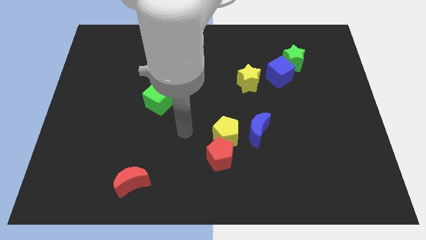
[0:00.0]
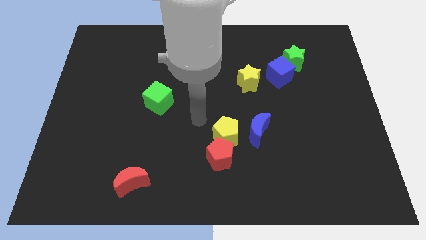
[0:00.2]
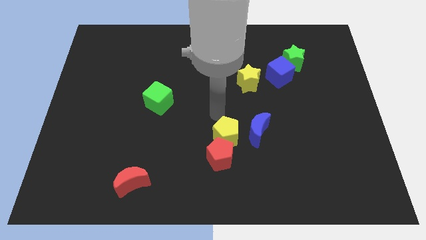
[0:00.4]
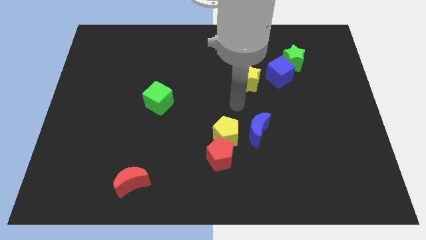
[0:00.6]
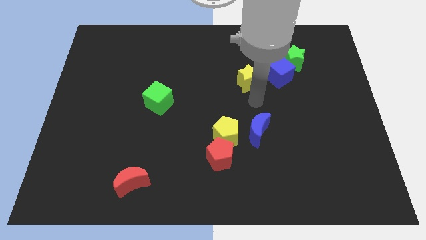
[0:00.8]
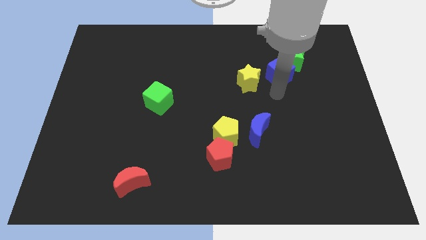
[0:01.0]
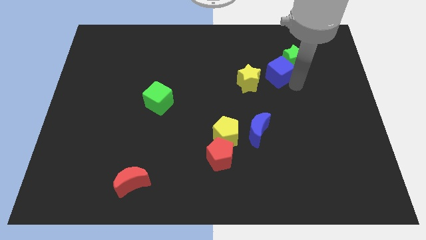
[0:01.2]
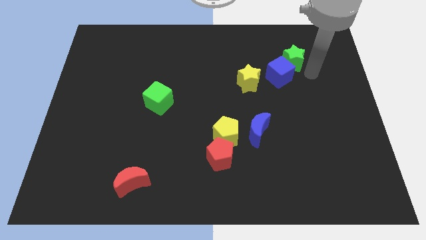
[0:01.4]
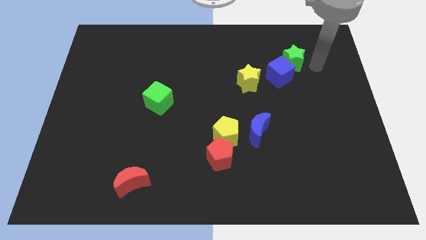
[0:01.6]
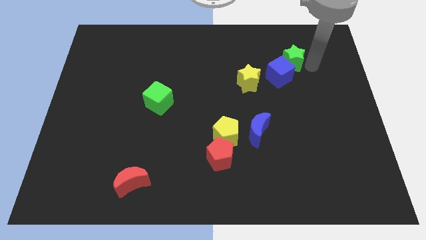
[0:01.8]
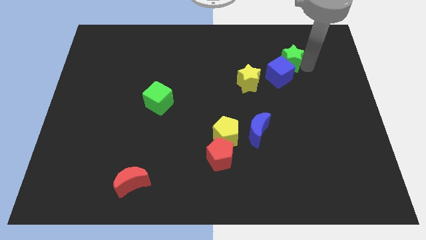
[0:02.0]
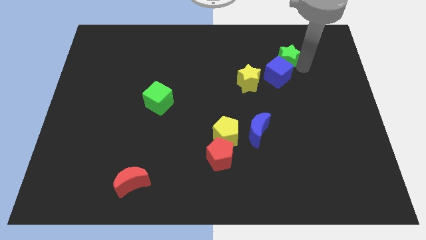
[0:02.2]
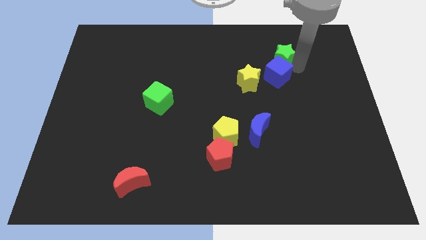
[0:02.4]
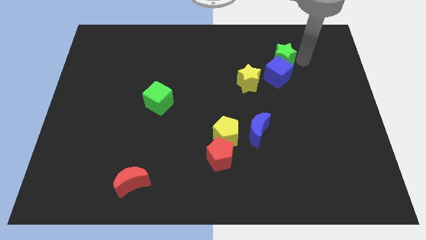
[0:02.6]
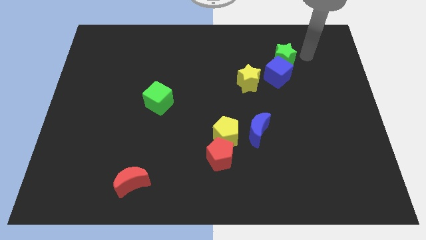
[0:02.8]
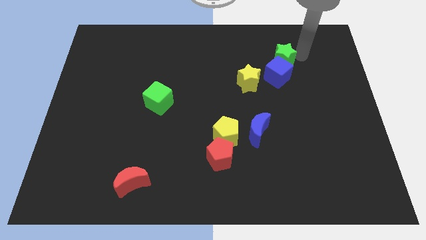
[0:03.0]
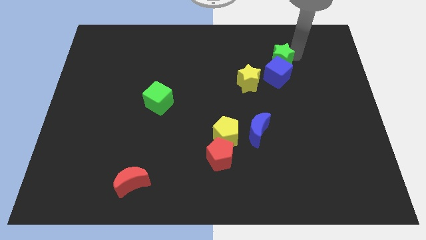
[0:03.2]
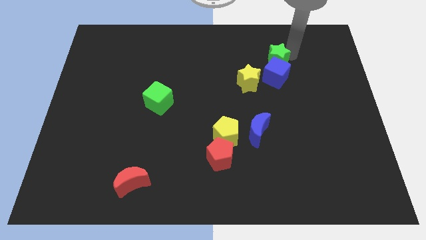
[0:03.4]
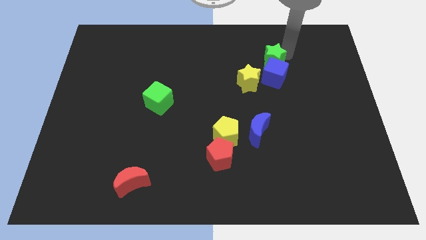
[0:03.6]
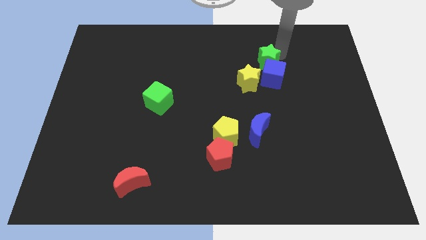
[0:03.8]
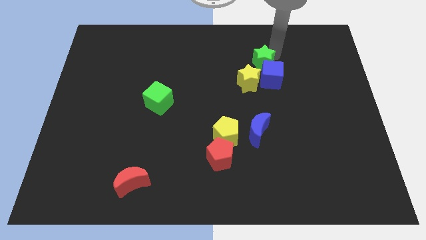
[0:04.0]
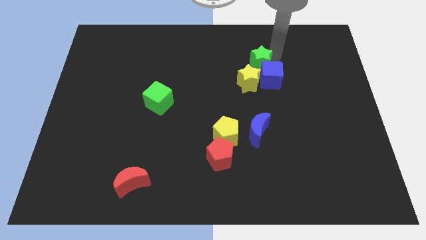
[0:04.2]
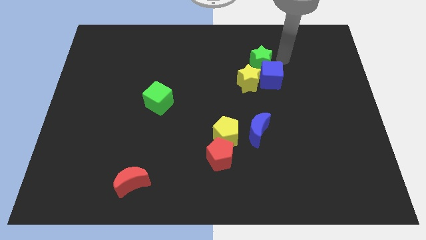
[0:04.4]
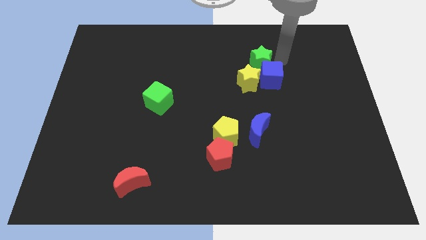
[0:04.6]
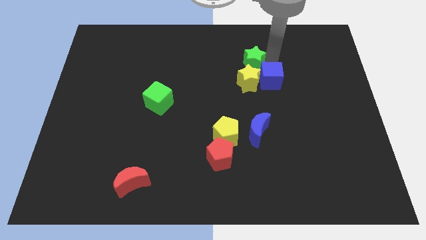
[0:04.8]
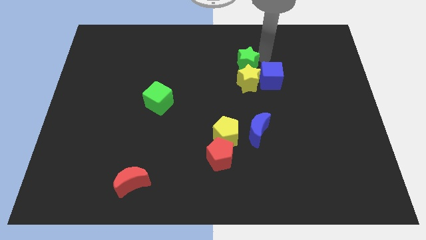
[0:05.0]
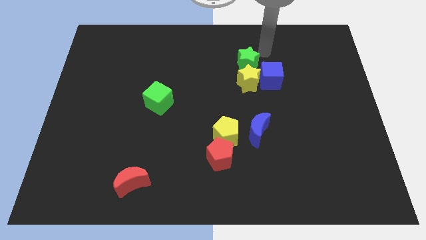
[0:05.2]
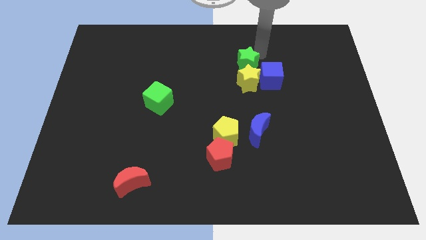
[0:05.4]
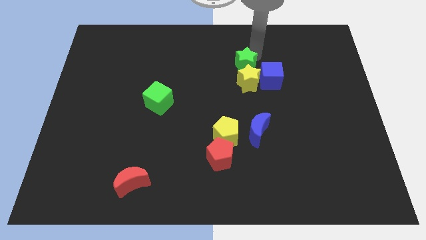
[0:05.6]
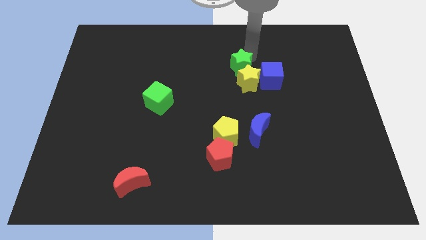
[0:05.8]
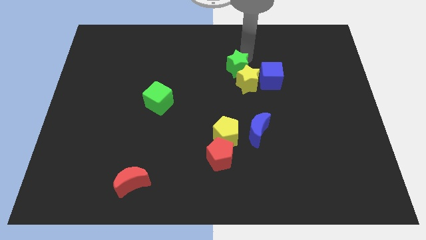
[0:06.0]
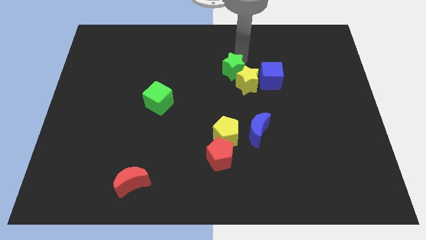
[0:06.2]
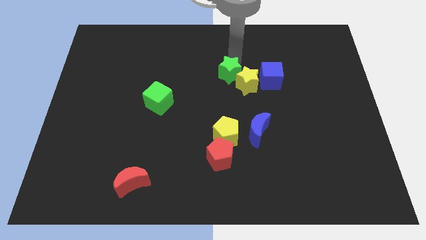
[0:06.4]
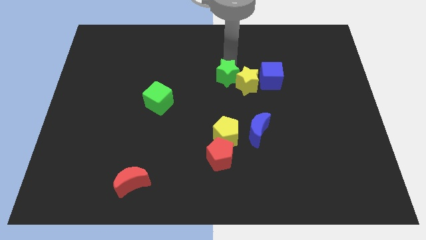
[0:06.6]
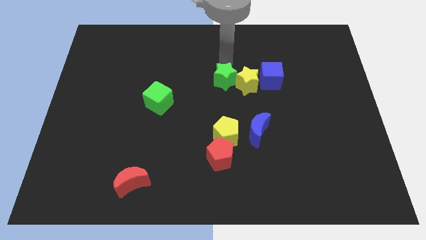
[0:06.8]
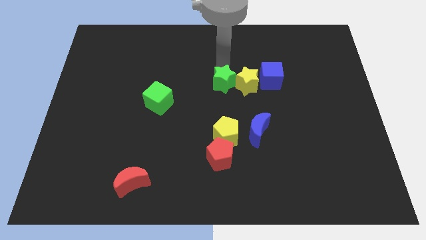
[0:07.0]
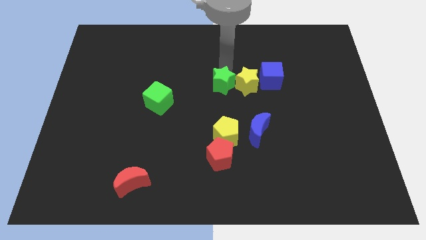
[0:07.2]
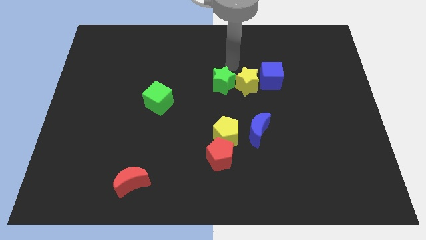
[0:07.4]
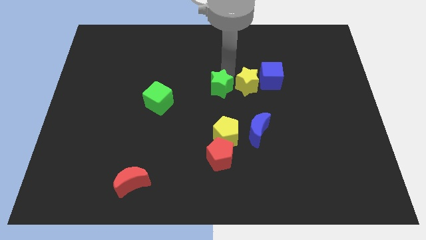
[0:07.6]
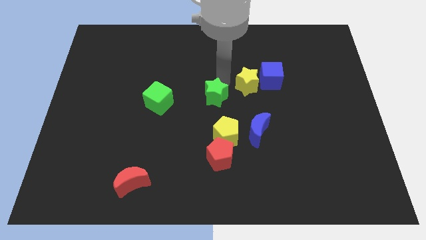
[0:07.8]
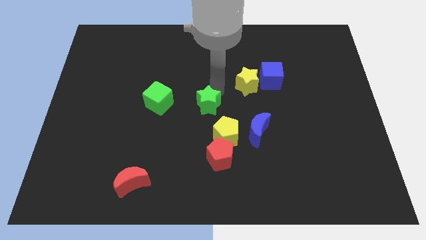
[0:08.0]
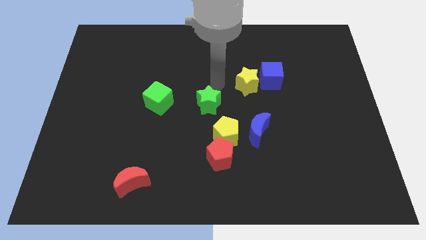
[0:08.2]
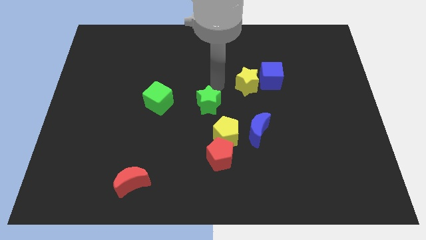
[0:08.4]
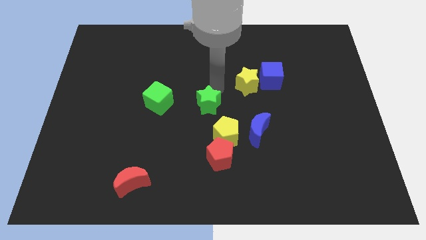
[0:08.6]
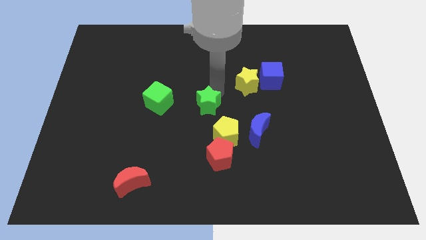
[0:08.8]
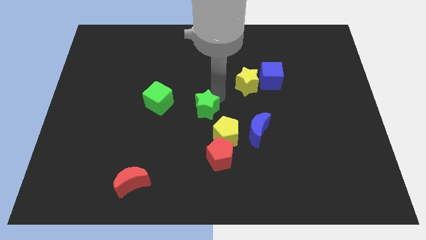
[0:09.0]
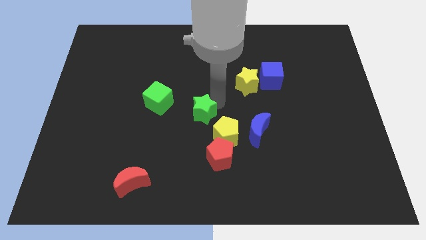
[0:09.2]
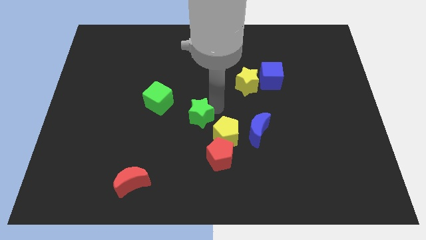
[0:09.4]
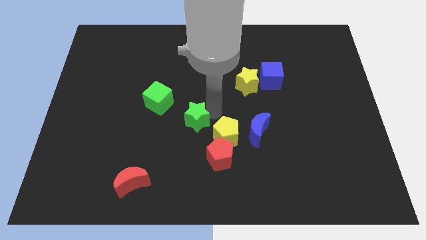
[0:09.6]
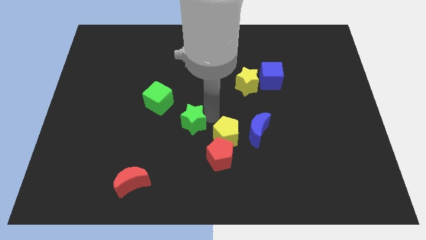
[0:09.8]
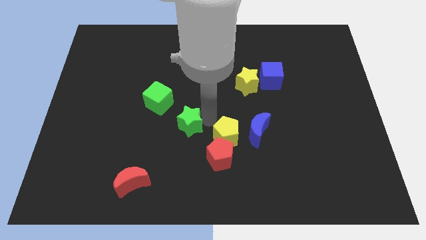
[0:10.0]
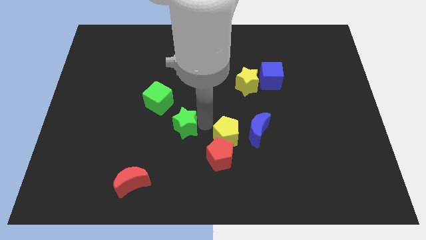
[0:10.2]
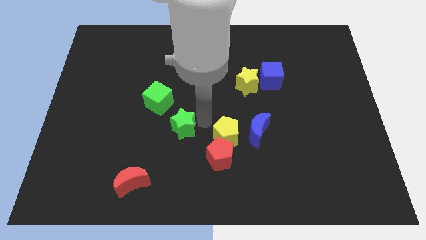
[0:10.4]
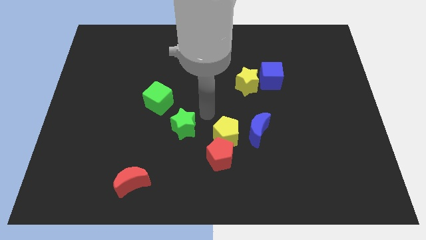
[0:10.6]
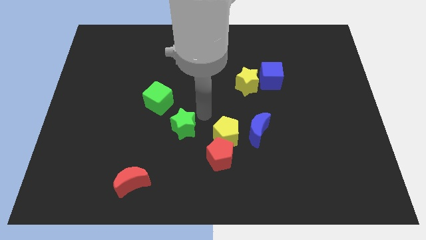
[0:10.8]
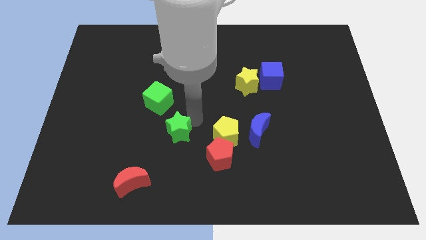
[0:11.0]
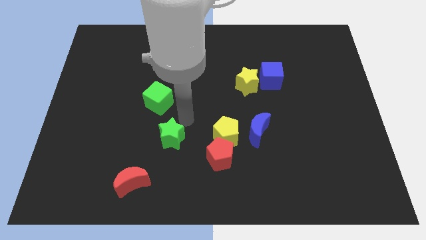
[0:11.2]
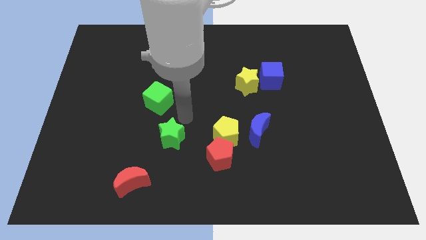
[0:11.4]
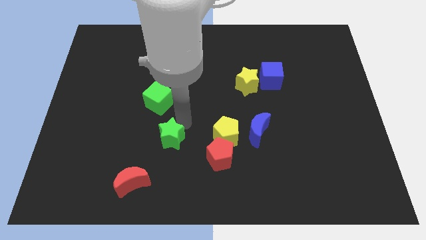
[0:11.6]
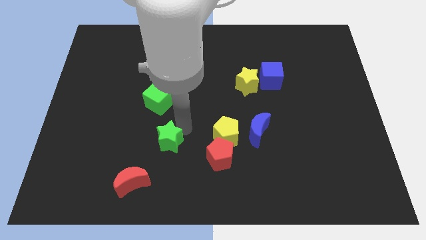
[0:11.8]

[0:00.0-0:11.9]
push the green star diagonally up and to the right of the red moon
